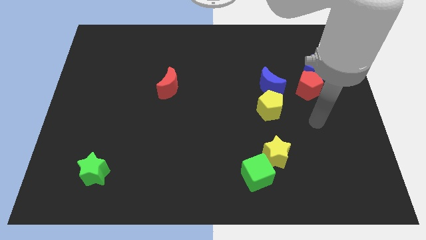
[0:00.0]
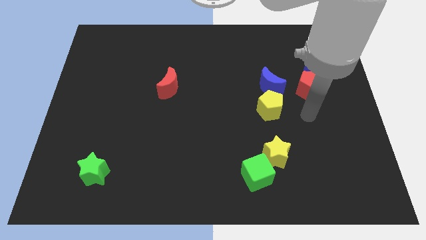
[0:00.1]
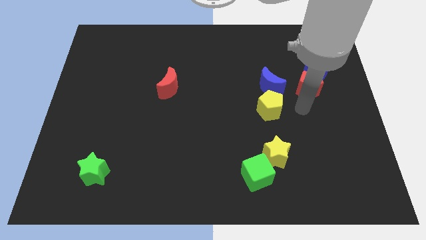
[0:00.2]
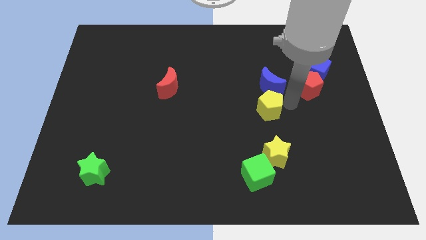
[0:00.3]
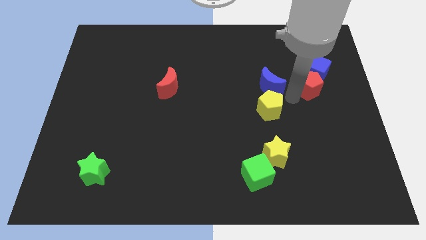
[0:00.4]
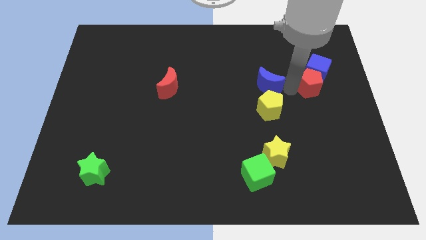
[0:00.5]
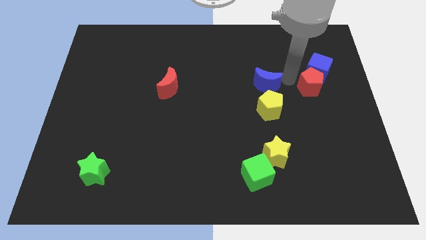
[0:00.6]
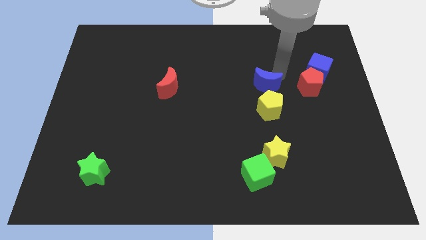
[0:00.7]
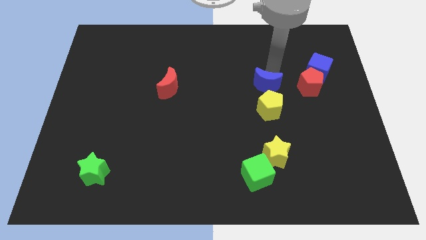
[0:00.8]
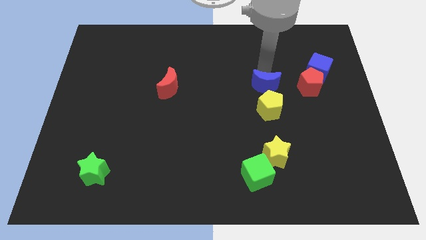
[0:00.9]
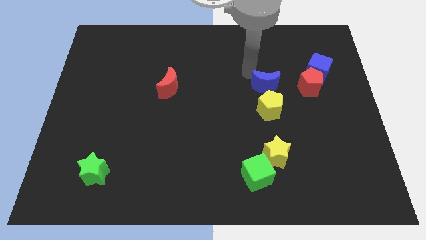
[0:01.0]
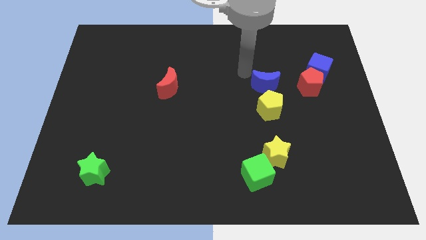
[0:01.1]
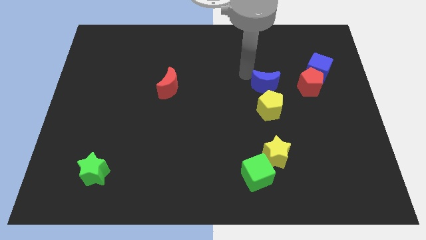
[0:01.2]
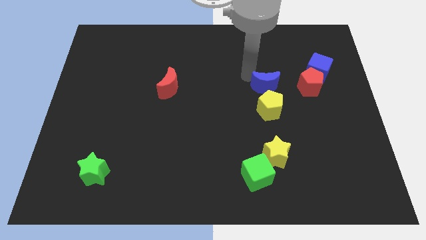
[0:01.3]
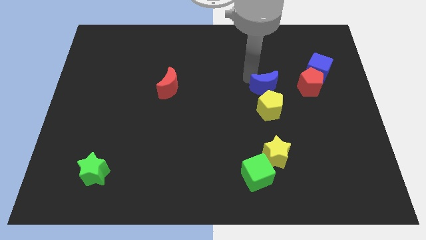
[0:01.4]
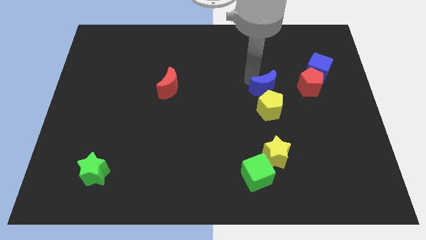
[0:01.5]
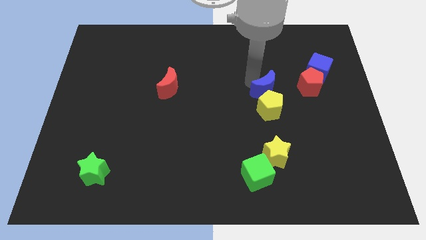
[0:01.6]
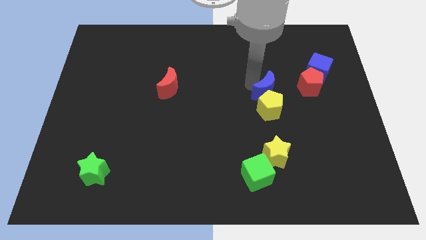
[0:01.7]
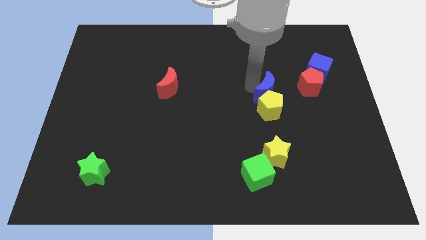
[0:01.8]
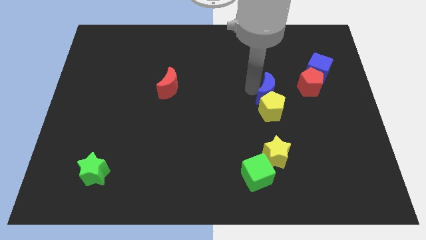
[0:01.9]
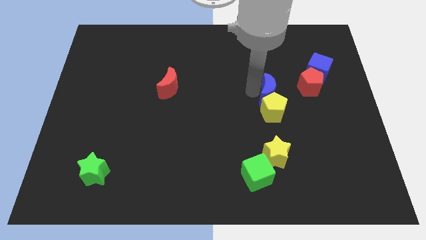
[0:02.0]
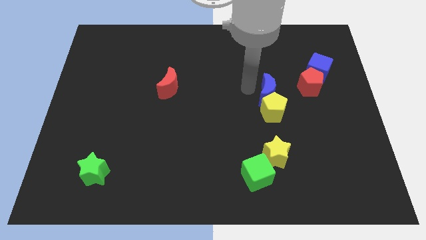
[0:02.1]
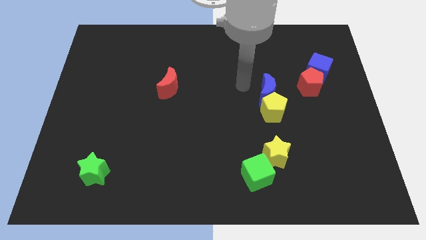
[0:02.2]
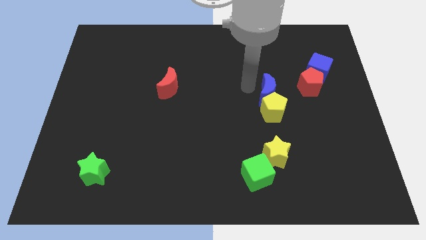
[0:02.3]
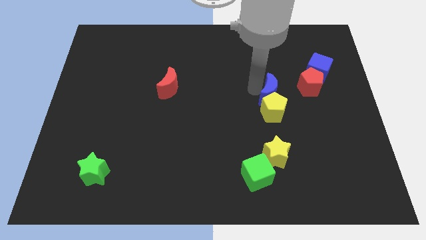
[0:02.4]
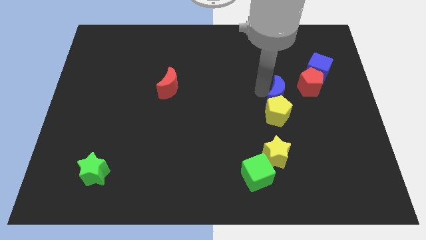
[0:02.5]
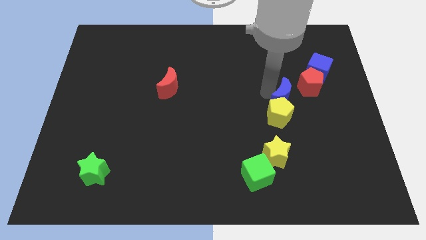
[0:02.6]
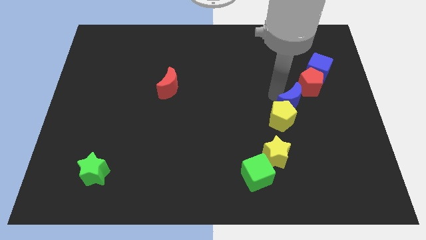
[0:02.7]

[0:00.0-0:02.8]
push the blue moon a little bit downwards and right

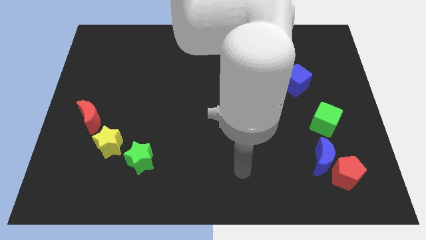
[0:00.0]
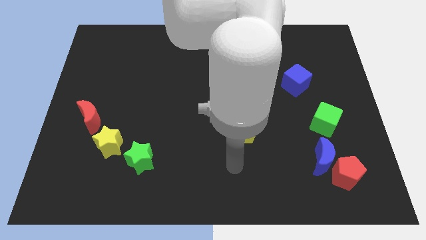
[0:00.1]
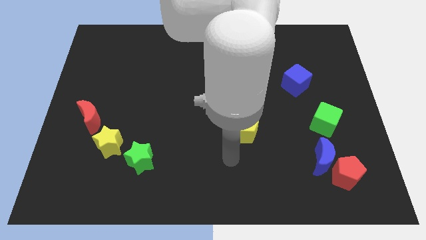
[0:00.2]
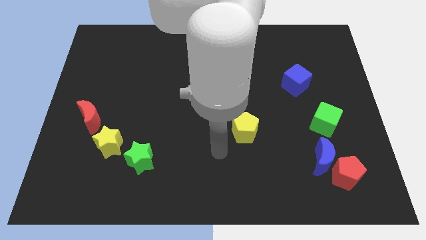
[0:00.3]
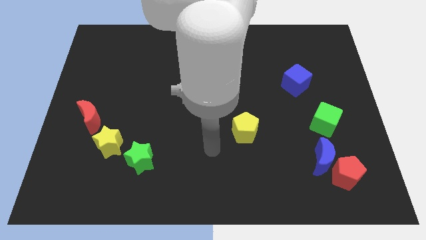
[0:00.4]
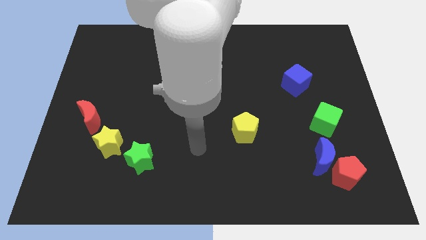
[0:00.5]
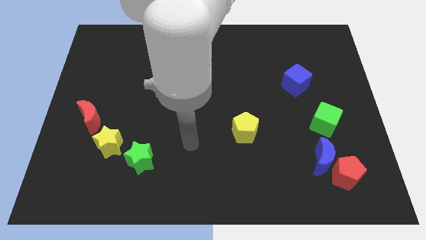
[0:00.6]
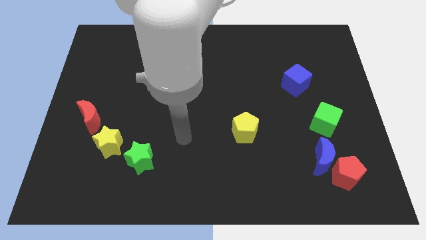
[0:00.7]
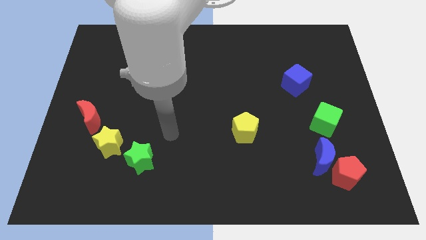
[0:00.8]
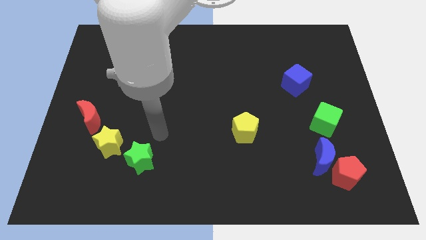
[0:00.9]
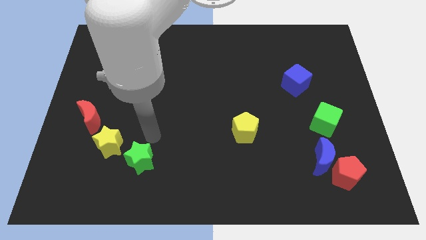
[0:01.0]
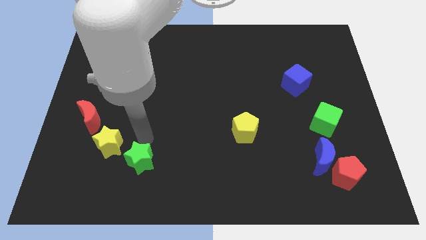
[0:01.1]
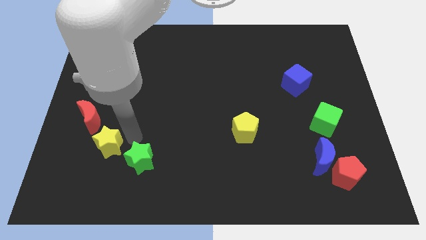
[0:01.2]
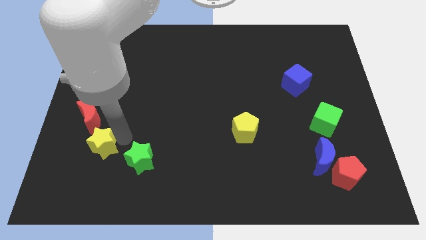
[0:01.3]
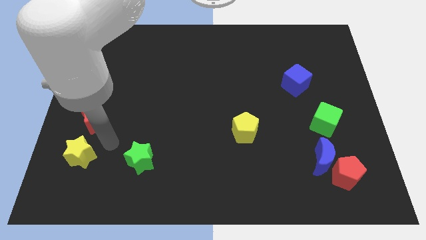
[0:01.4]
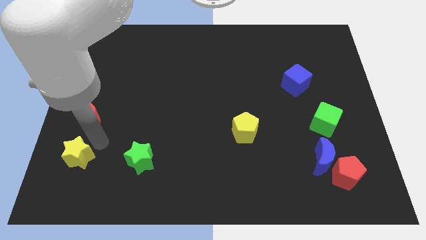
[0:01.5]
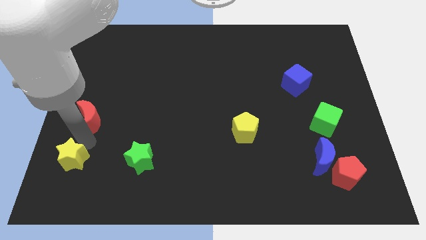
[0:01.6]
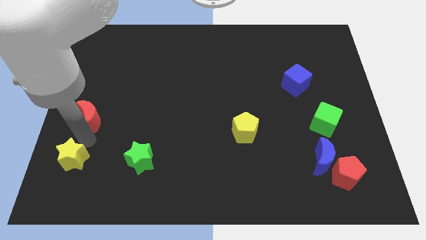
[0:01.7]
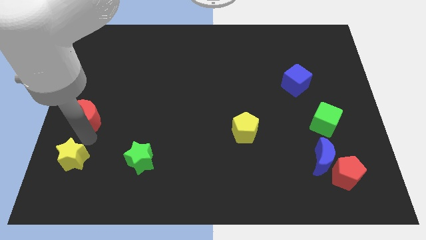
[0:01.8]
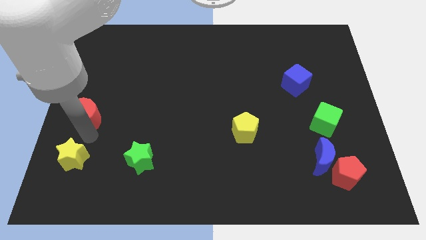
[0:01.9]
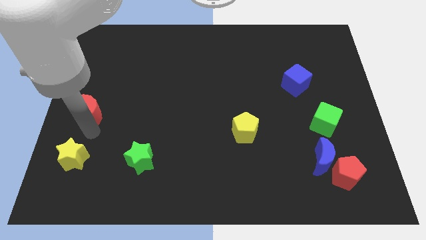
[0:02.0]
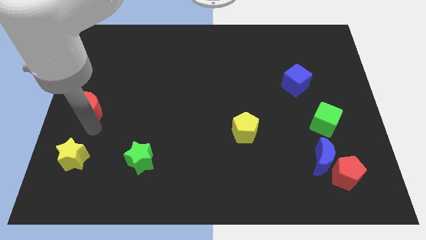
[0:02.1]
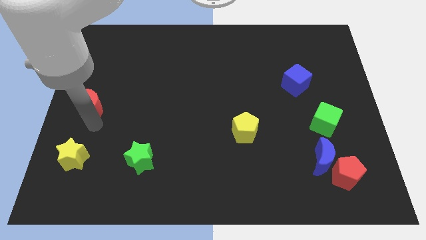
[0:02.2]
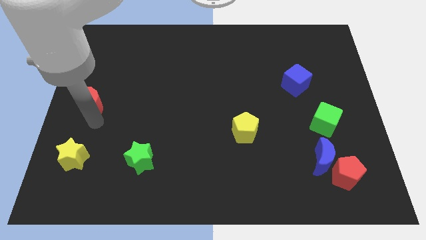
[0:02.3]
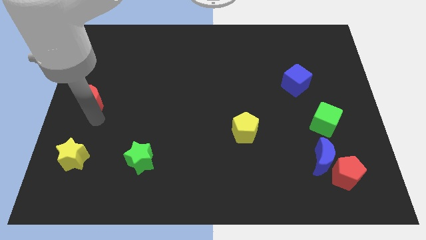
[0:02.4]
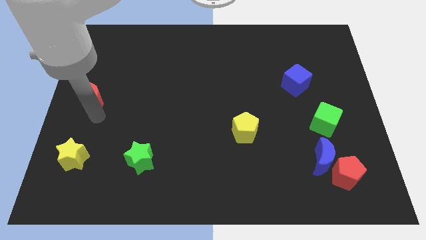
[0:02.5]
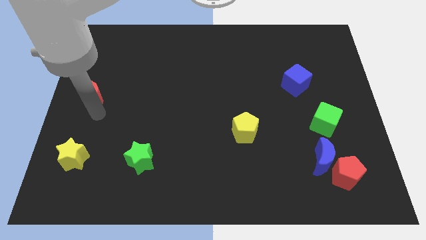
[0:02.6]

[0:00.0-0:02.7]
push the red moon upwards a little bit

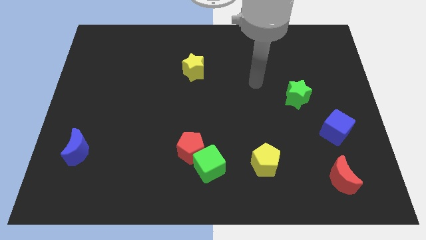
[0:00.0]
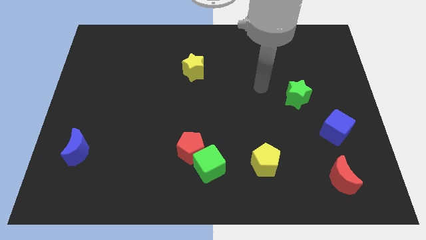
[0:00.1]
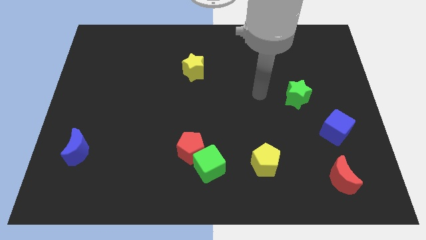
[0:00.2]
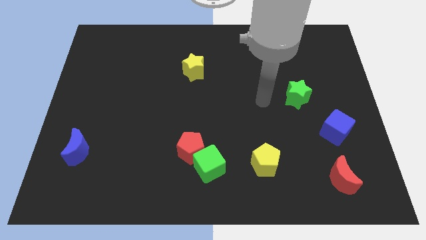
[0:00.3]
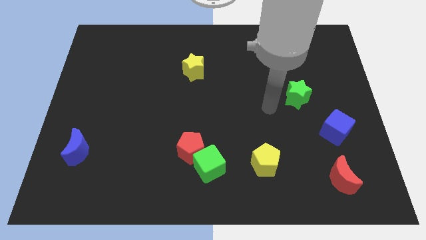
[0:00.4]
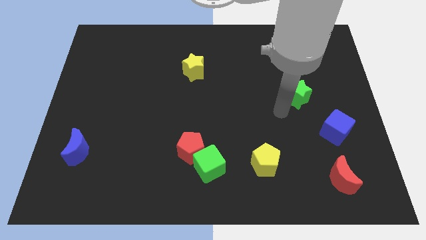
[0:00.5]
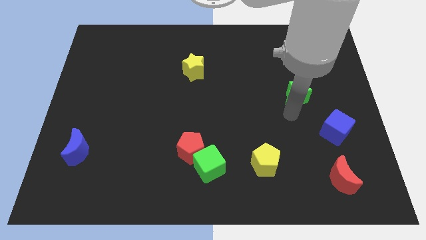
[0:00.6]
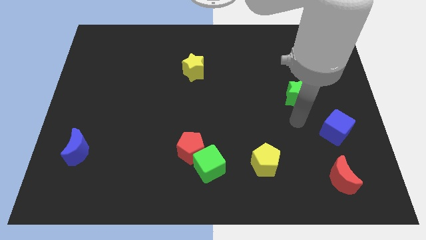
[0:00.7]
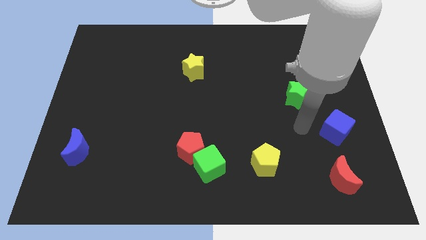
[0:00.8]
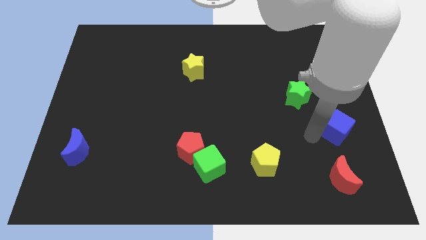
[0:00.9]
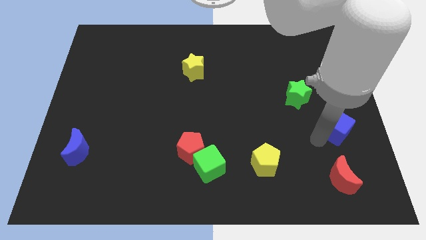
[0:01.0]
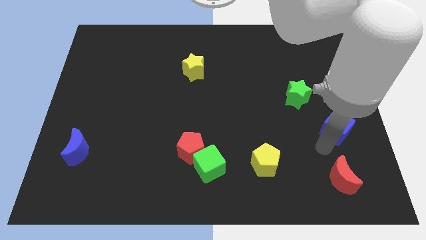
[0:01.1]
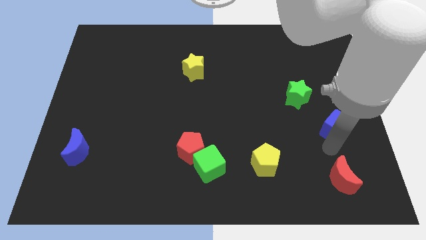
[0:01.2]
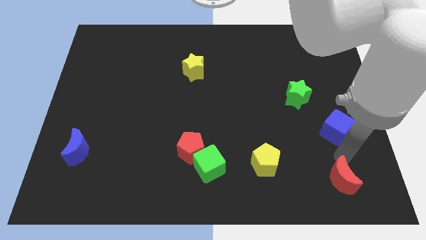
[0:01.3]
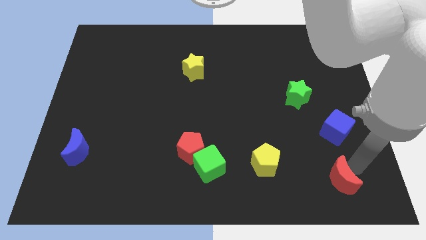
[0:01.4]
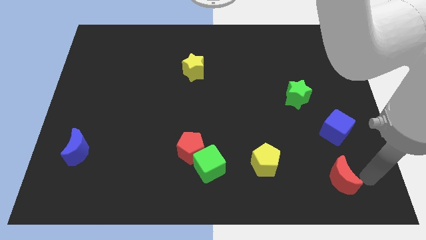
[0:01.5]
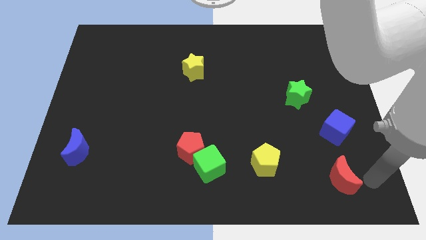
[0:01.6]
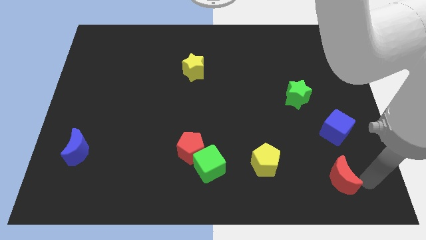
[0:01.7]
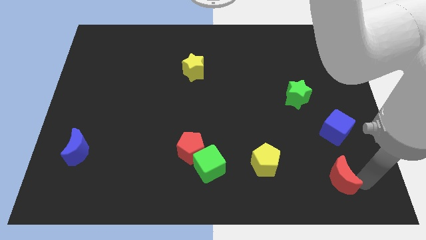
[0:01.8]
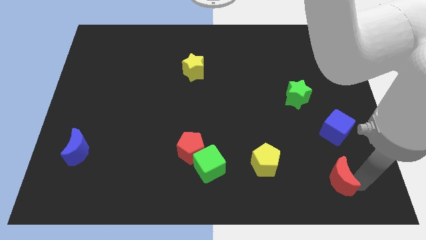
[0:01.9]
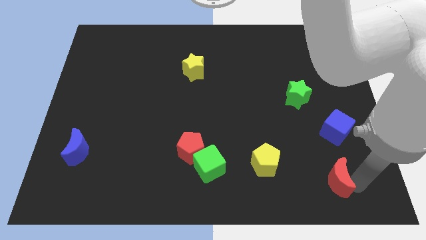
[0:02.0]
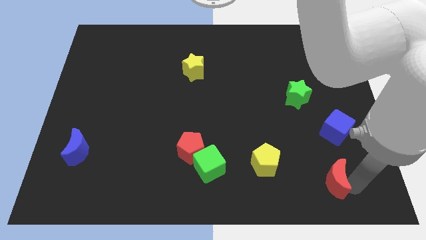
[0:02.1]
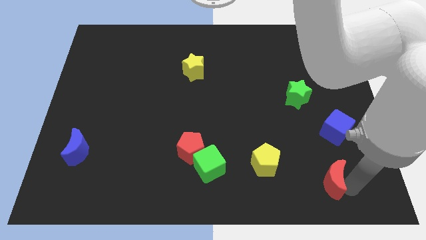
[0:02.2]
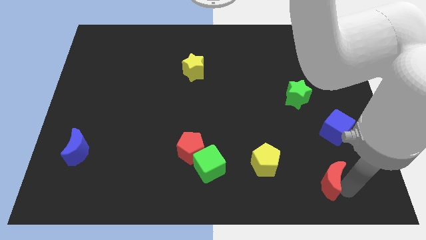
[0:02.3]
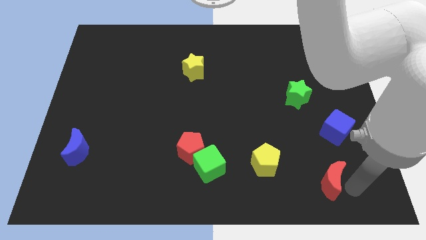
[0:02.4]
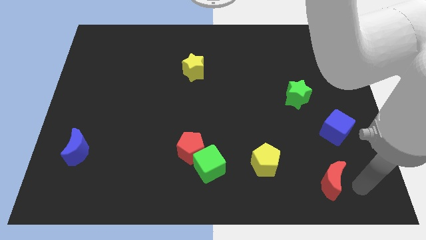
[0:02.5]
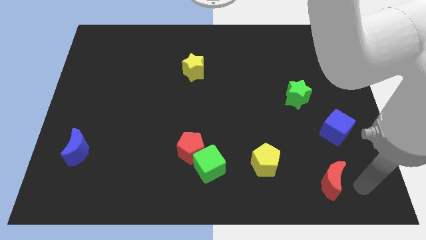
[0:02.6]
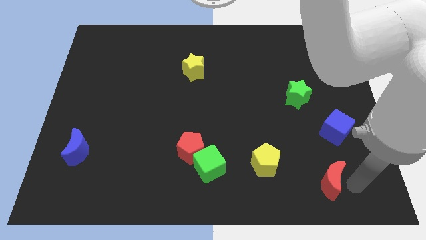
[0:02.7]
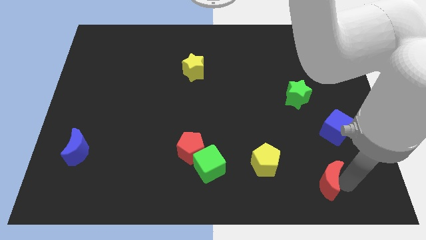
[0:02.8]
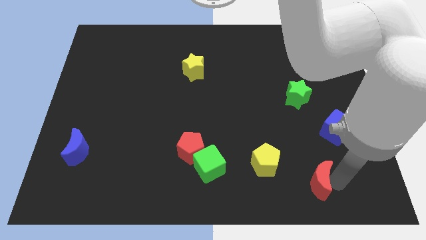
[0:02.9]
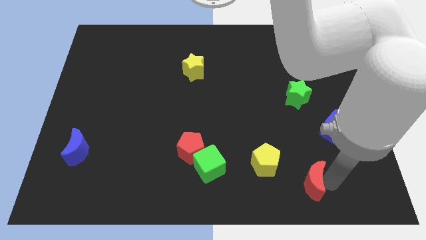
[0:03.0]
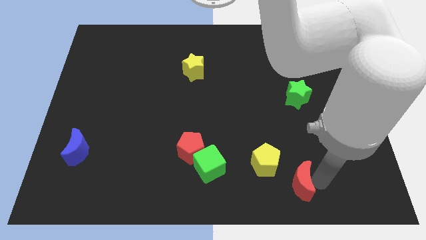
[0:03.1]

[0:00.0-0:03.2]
push the red moon left somewhat
